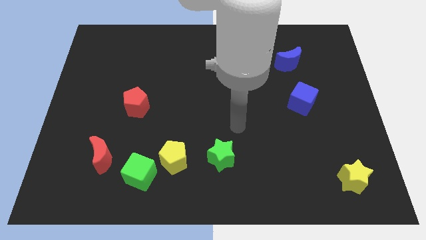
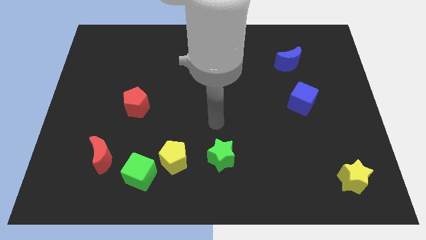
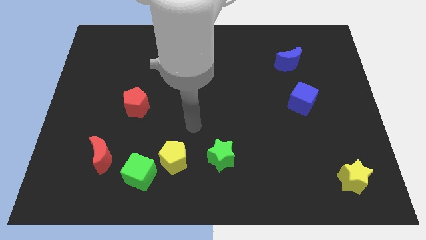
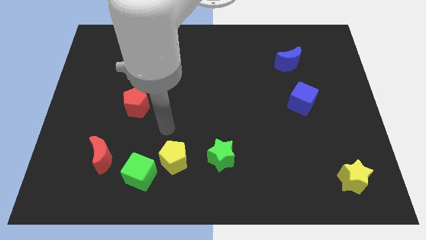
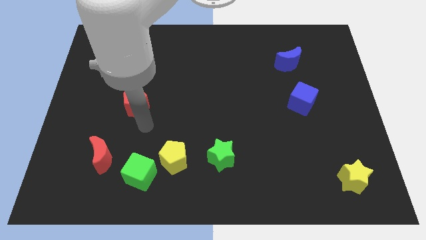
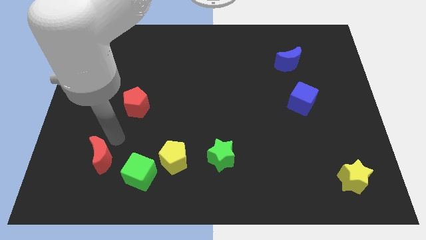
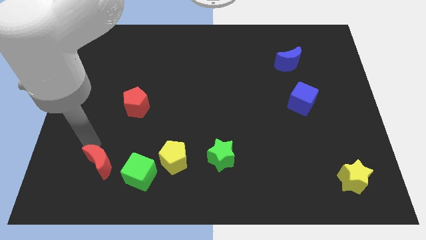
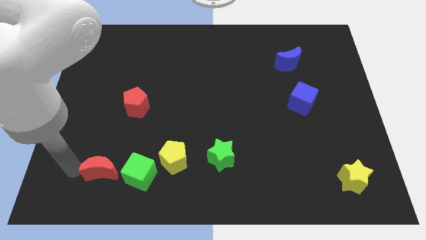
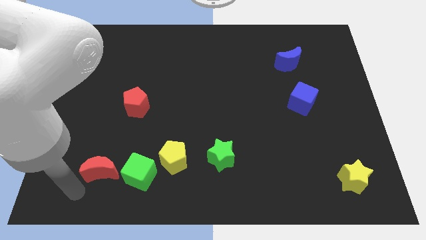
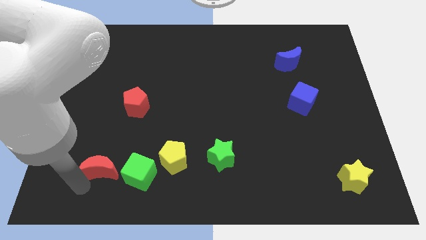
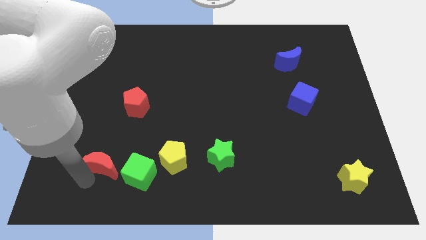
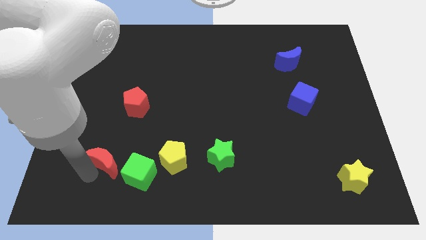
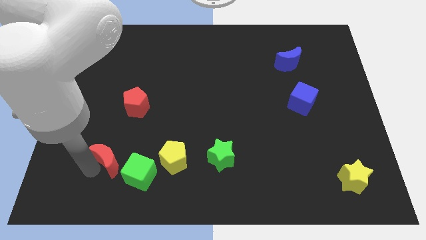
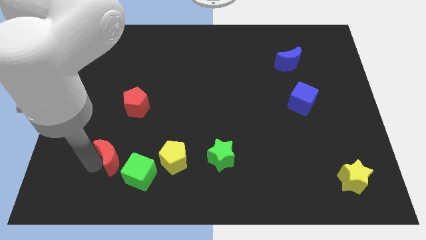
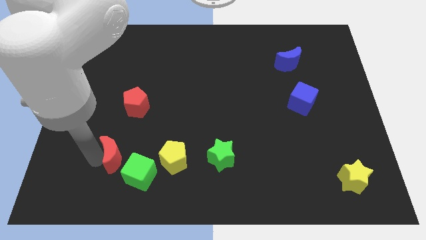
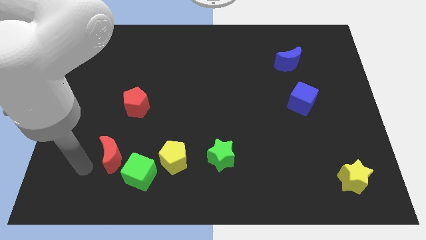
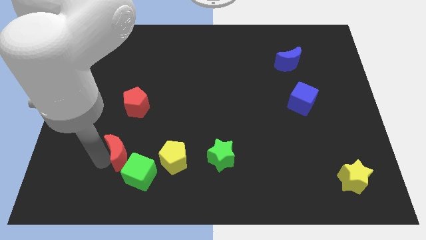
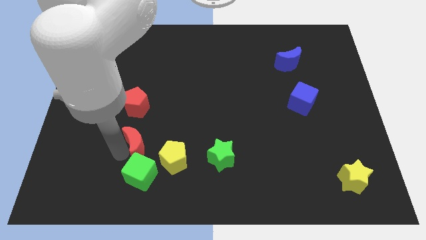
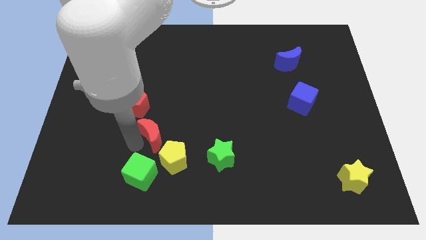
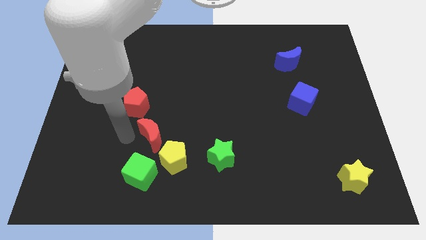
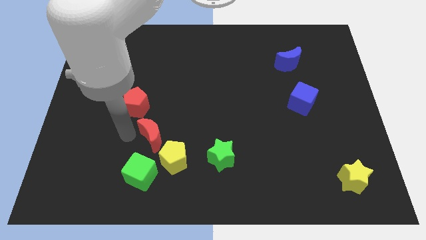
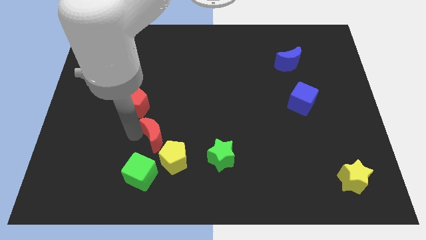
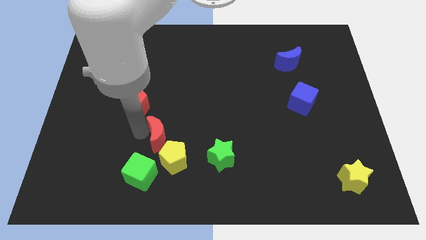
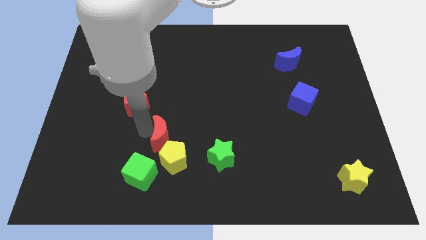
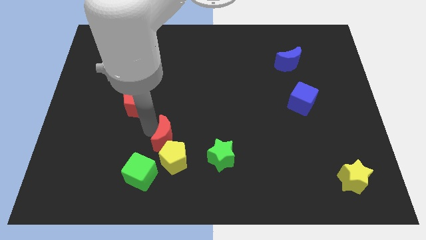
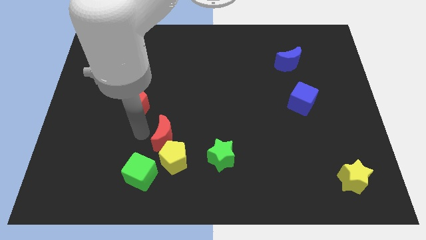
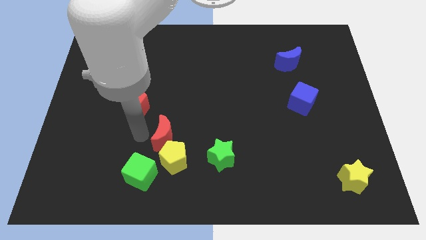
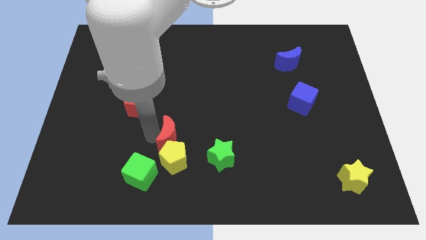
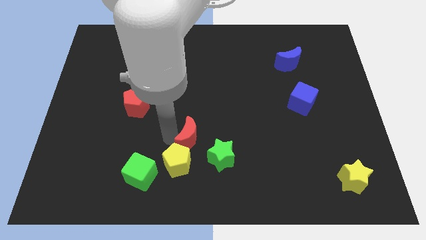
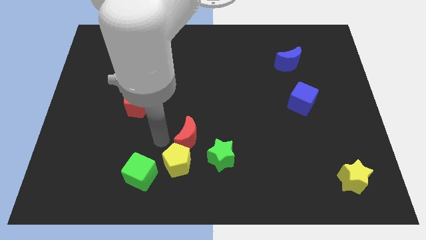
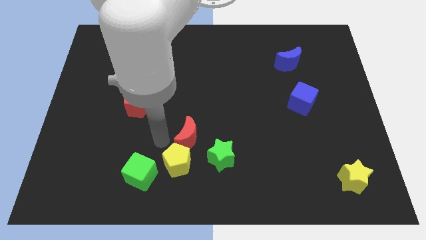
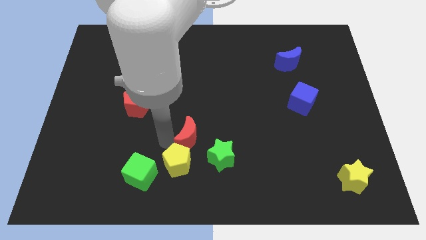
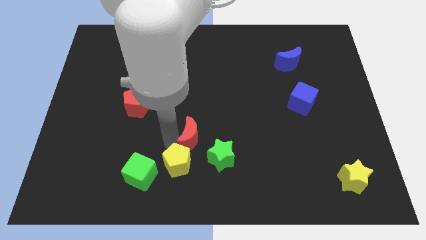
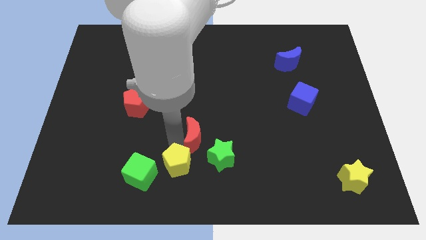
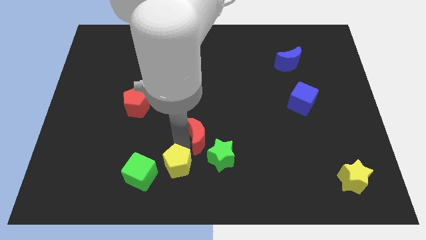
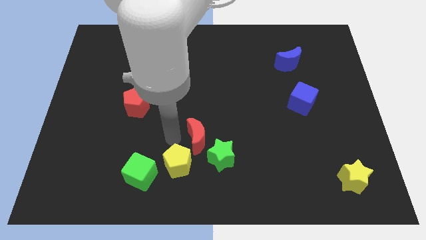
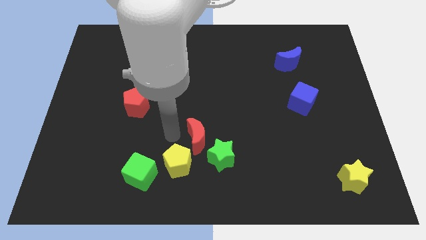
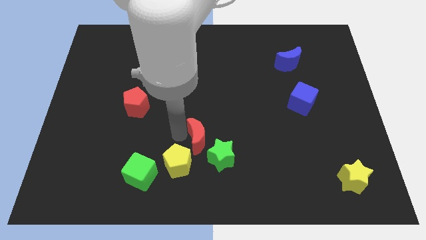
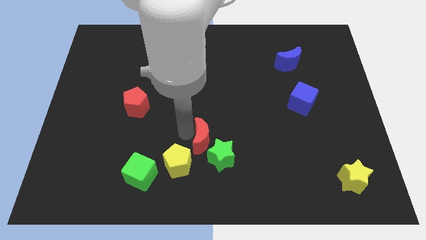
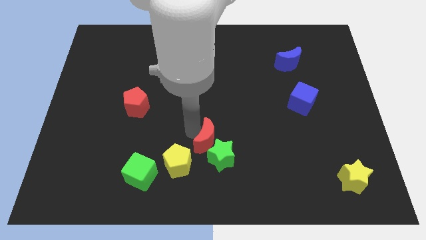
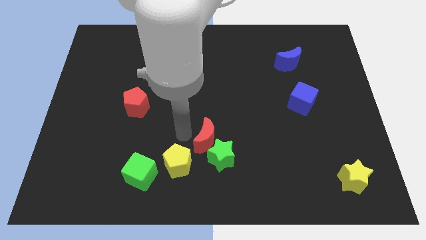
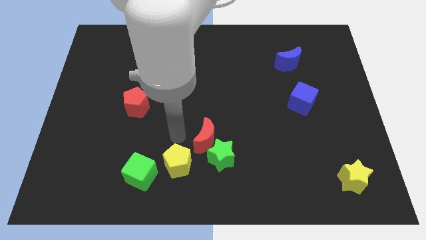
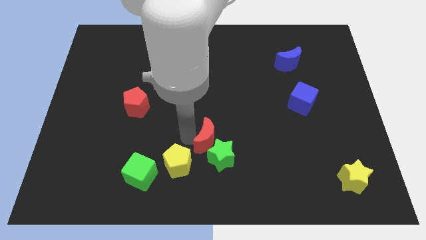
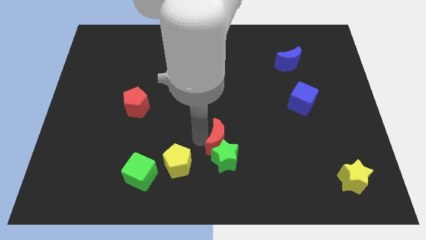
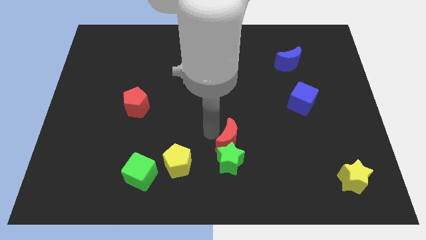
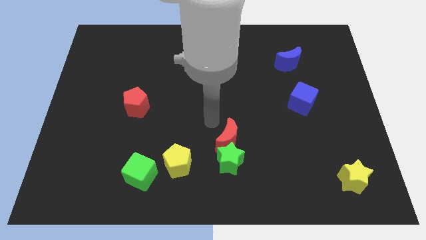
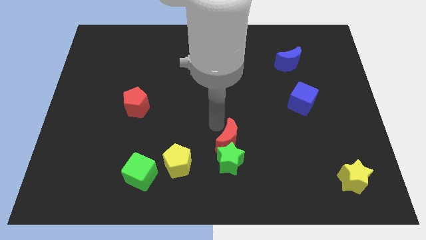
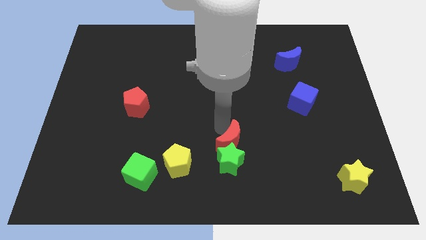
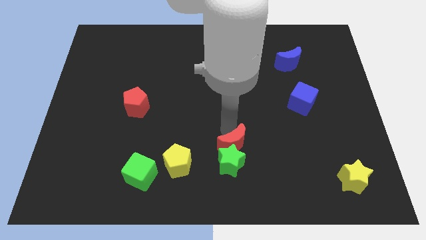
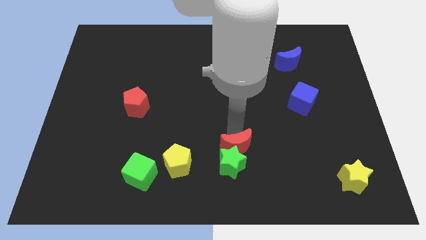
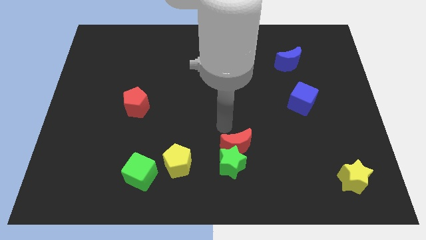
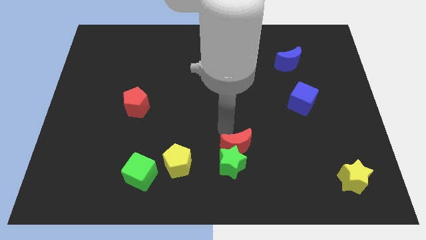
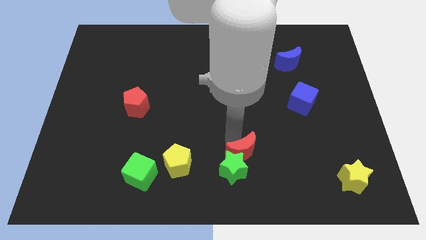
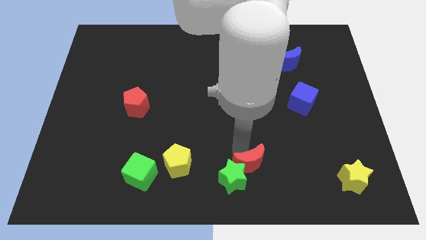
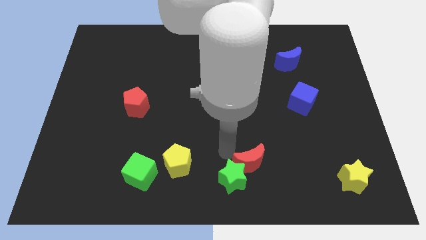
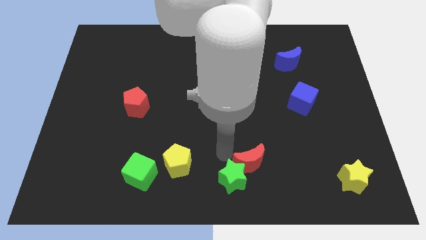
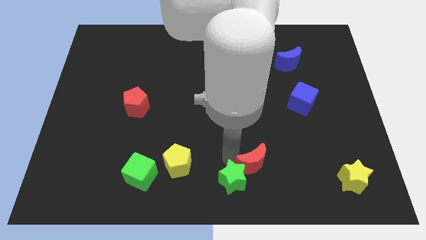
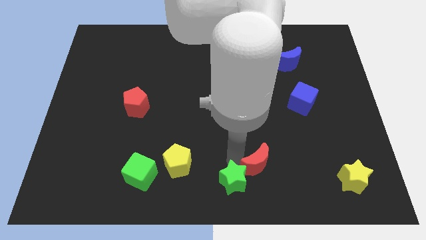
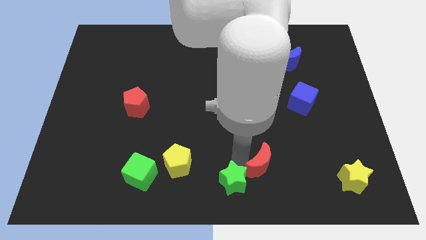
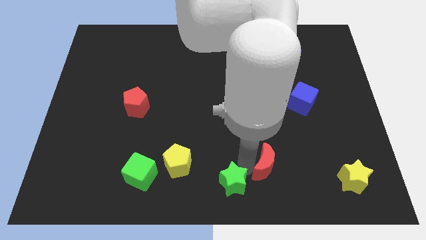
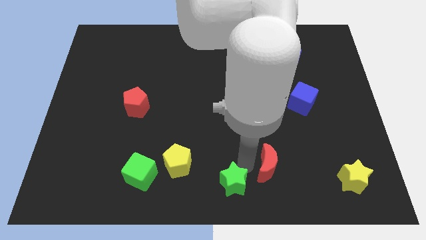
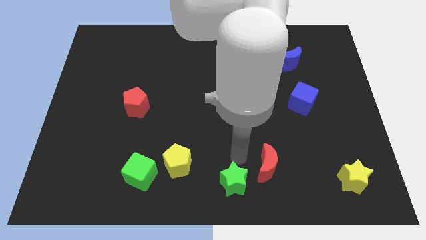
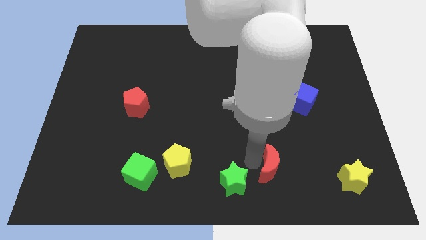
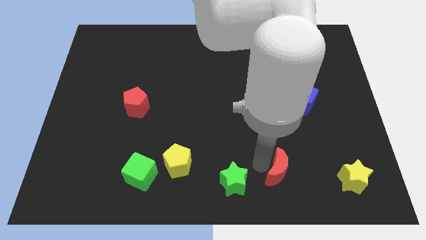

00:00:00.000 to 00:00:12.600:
slide the red moon to the left side of the yellow star

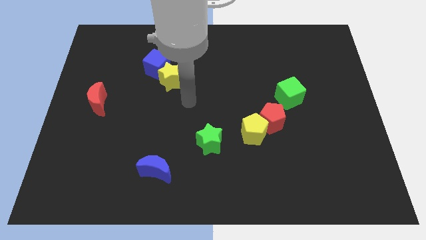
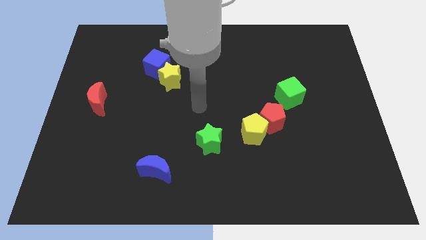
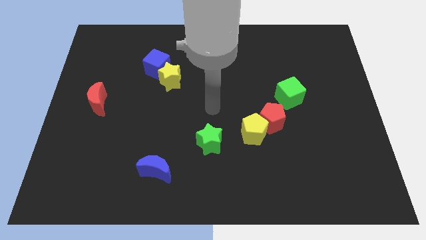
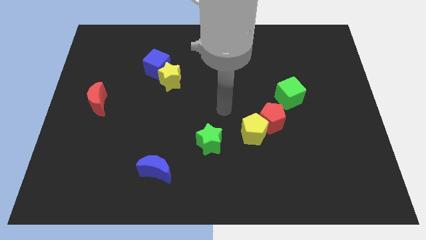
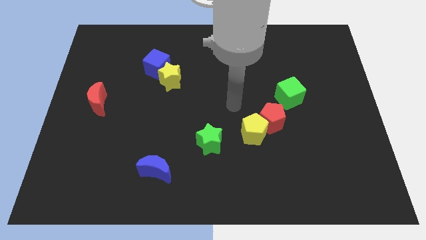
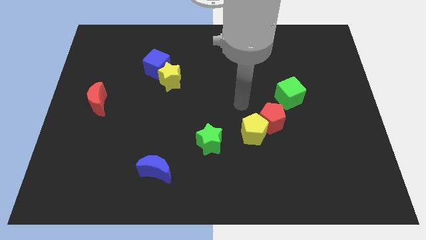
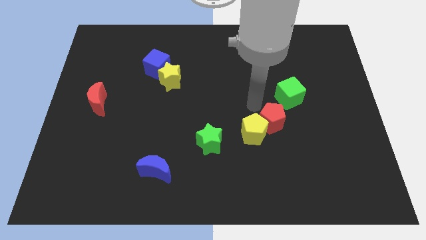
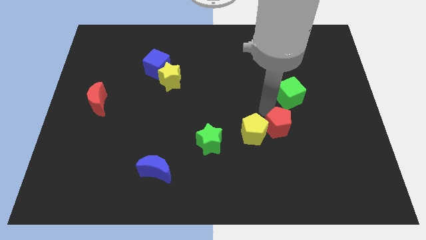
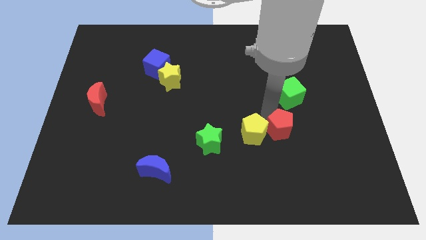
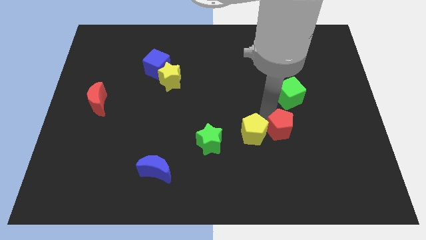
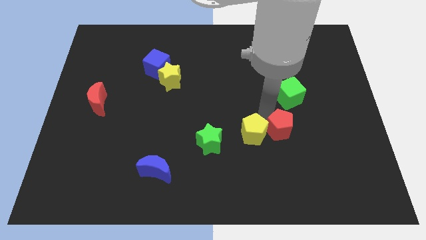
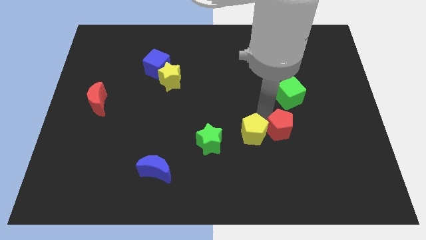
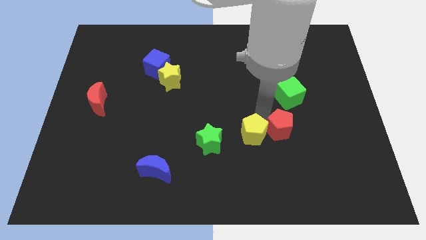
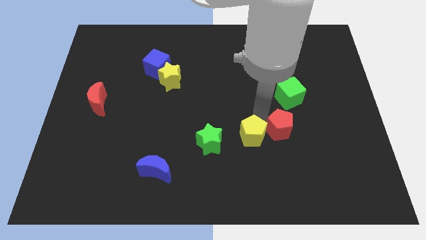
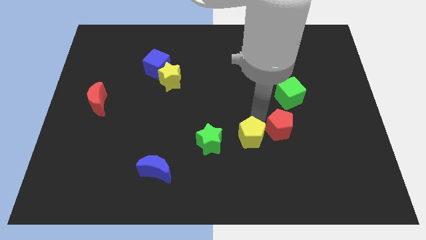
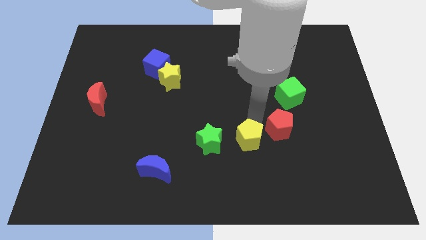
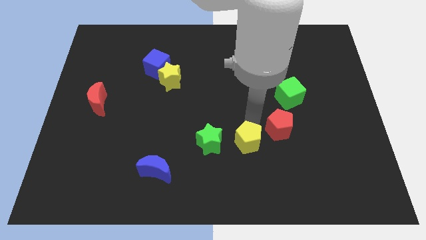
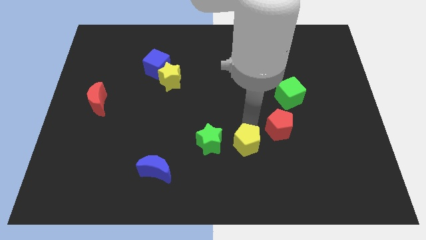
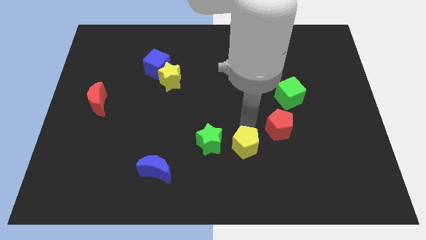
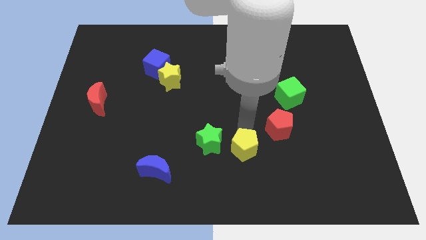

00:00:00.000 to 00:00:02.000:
push the yellow pentagon to the bottom right of the green star
